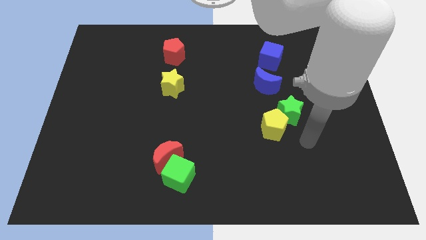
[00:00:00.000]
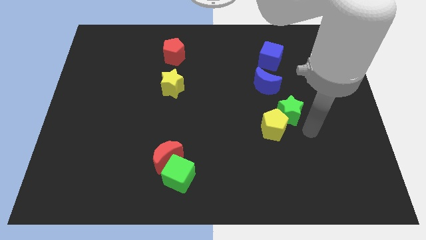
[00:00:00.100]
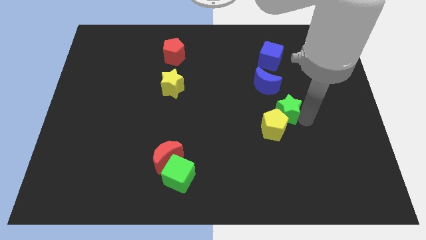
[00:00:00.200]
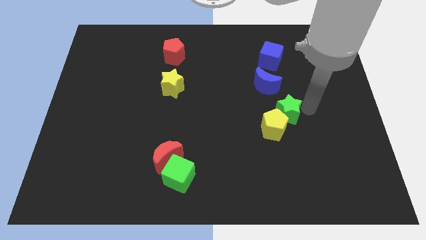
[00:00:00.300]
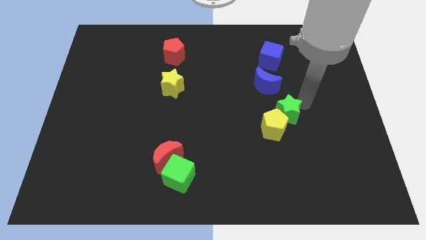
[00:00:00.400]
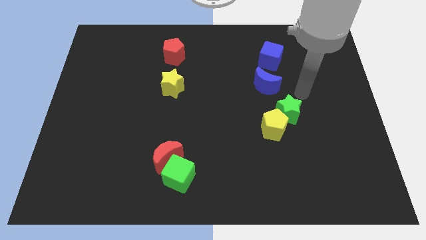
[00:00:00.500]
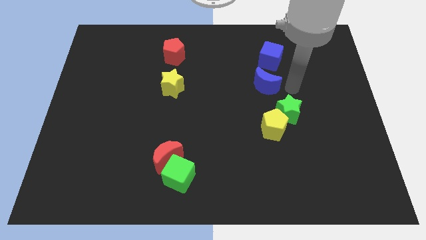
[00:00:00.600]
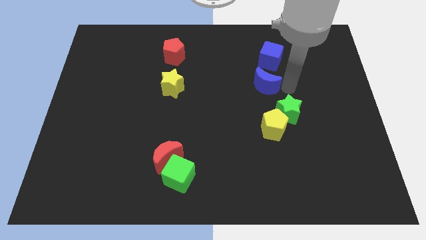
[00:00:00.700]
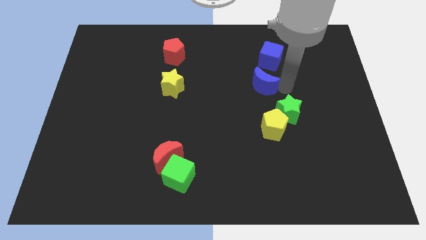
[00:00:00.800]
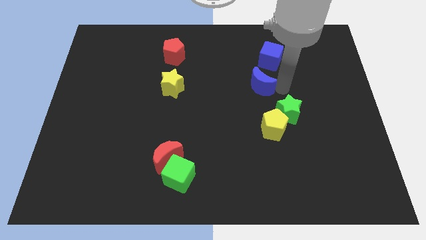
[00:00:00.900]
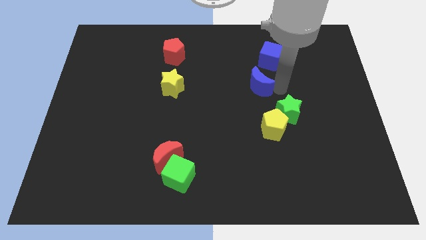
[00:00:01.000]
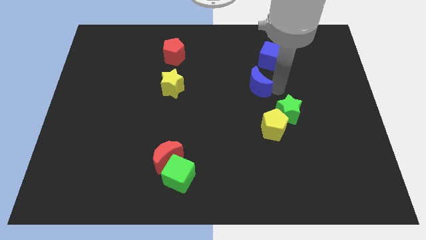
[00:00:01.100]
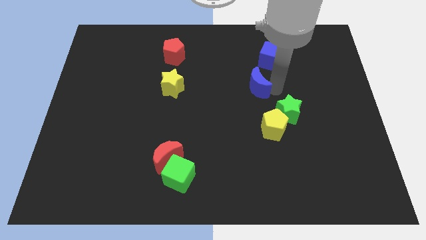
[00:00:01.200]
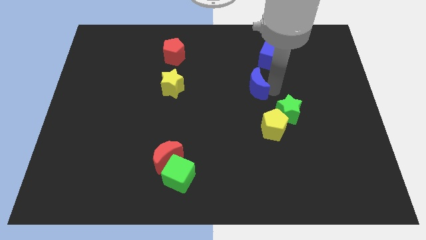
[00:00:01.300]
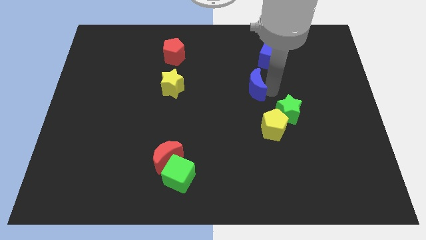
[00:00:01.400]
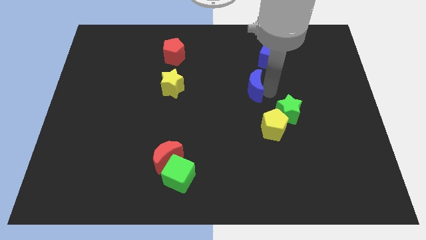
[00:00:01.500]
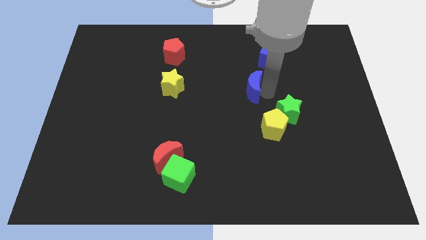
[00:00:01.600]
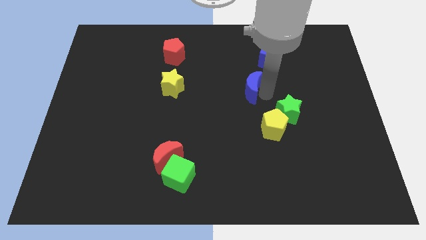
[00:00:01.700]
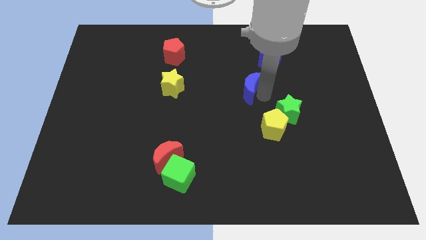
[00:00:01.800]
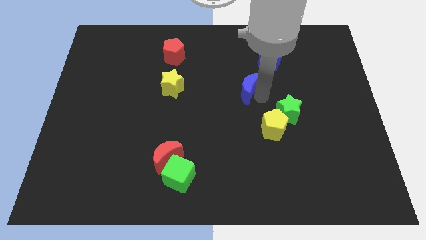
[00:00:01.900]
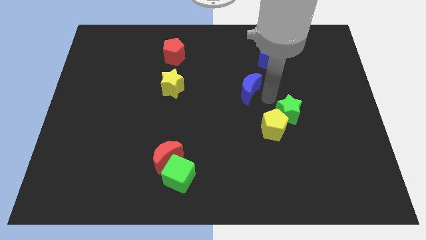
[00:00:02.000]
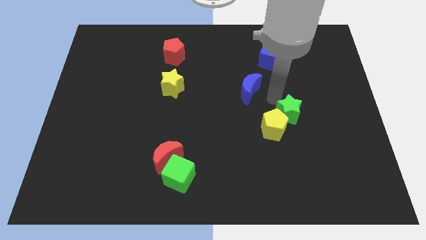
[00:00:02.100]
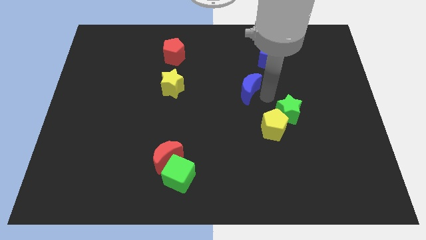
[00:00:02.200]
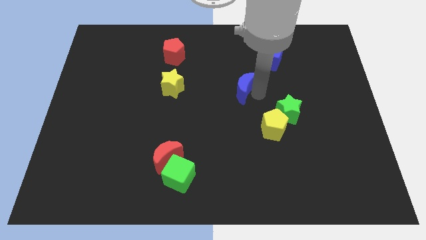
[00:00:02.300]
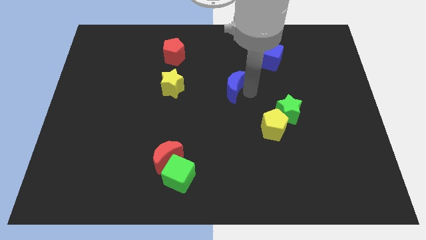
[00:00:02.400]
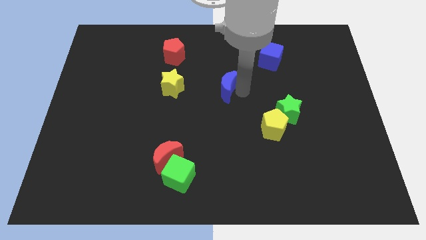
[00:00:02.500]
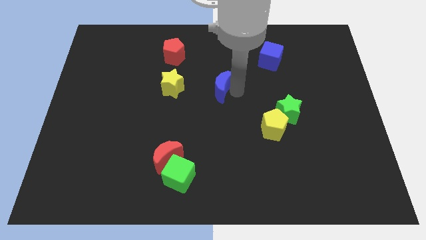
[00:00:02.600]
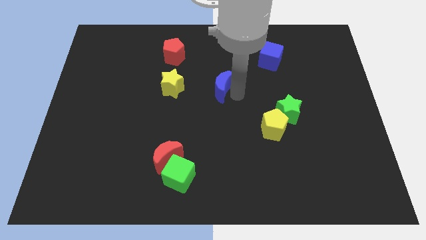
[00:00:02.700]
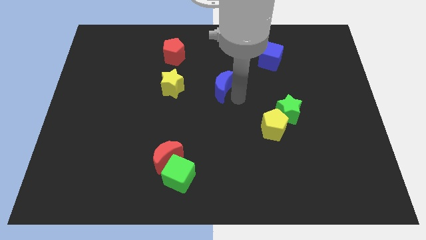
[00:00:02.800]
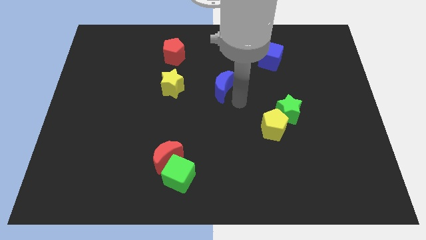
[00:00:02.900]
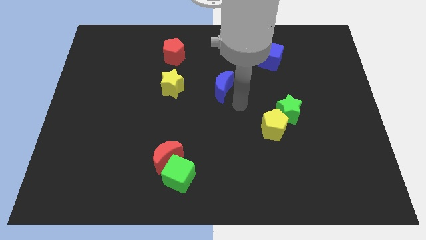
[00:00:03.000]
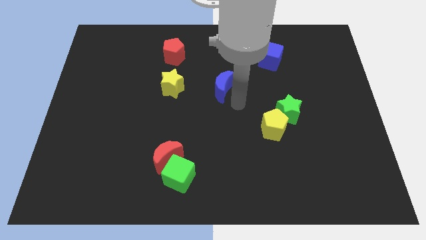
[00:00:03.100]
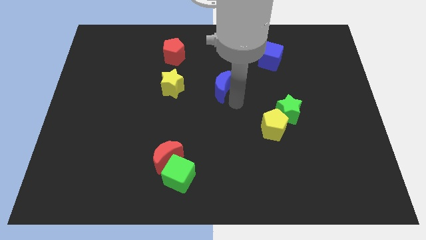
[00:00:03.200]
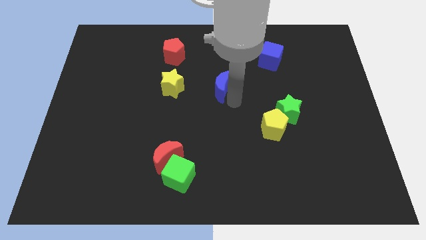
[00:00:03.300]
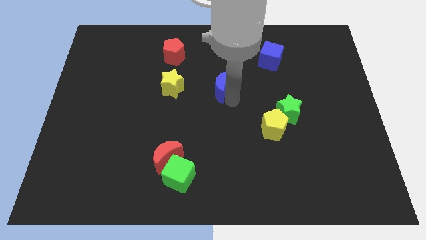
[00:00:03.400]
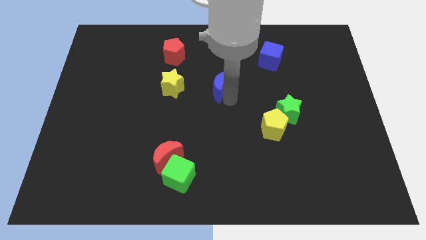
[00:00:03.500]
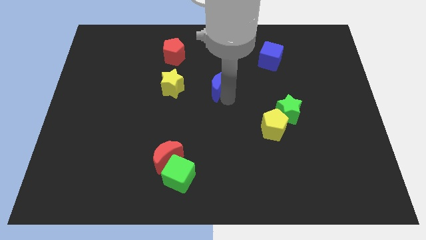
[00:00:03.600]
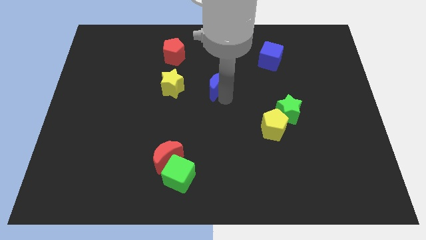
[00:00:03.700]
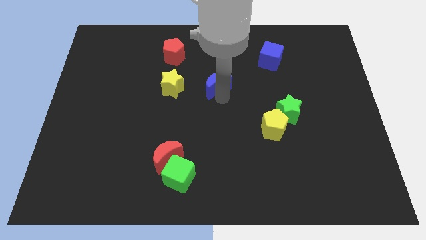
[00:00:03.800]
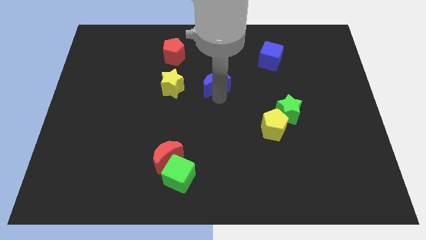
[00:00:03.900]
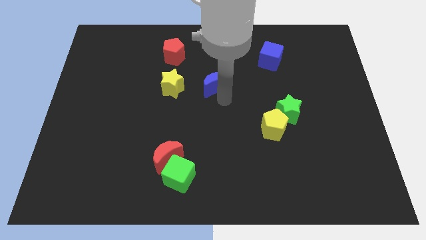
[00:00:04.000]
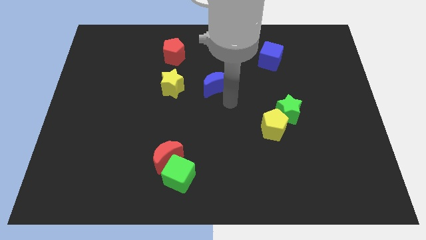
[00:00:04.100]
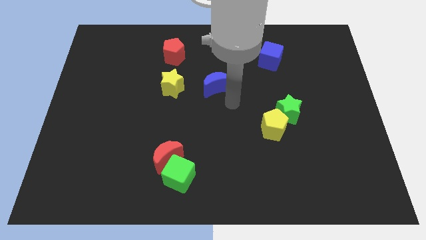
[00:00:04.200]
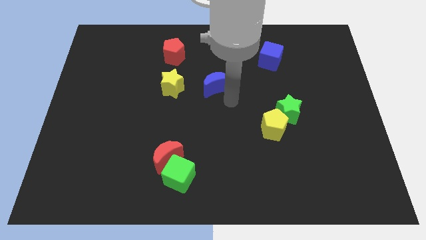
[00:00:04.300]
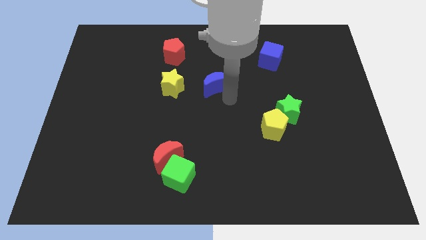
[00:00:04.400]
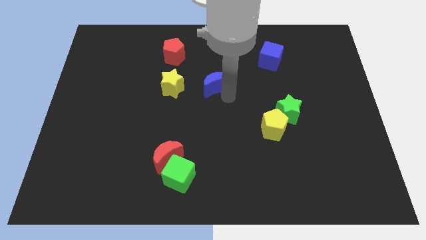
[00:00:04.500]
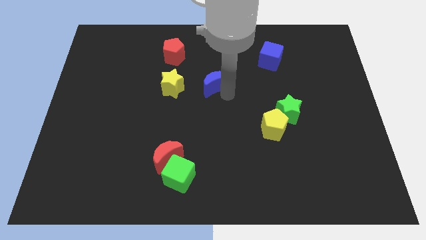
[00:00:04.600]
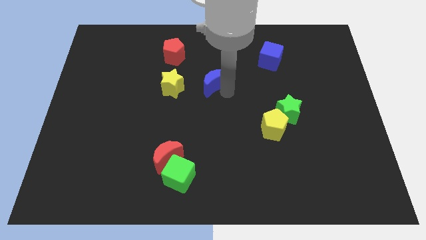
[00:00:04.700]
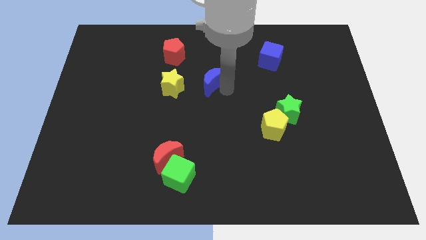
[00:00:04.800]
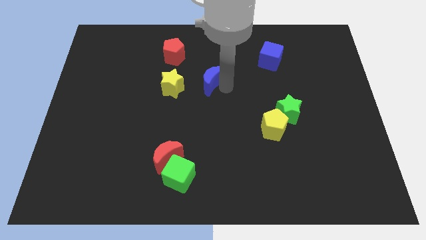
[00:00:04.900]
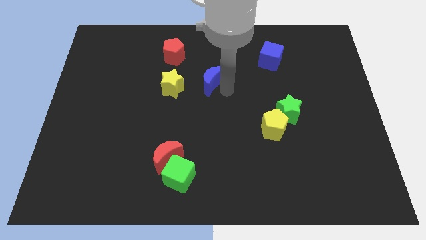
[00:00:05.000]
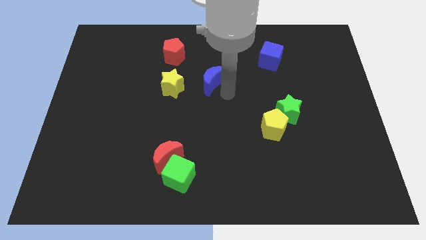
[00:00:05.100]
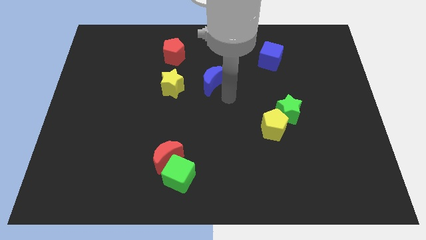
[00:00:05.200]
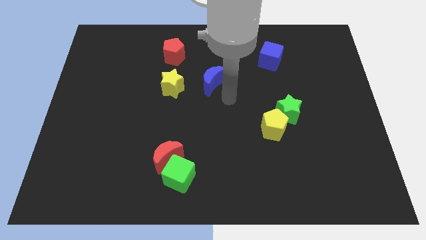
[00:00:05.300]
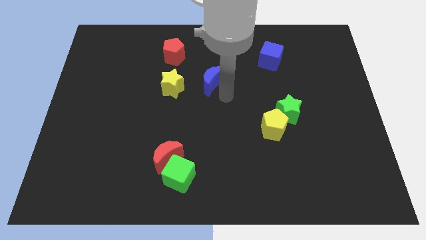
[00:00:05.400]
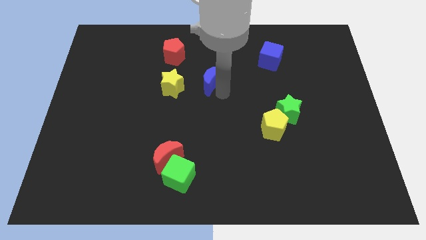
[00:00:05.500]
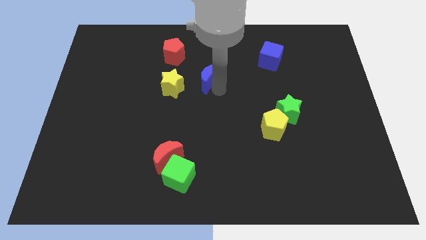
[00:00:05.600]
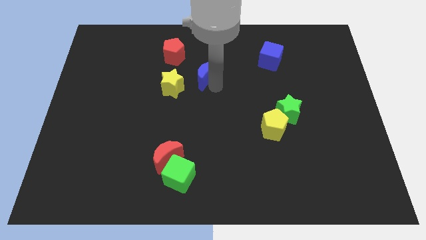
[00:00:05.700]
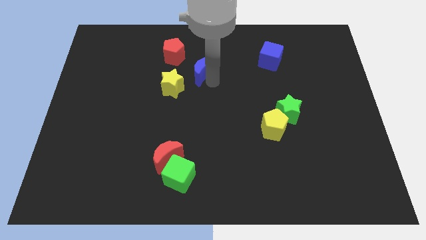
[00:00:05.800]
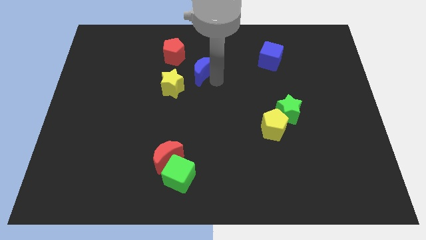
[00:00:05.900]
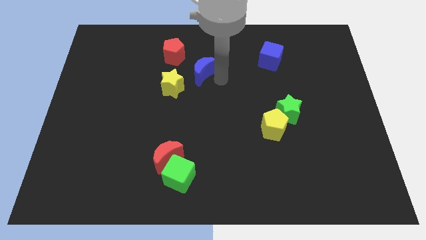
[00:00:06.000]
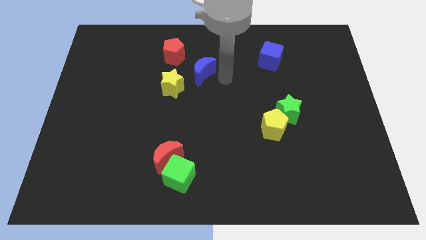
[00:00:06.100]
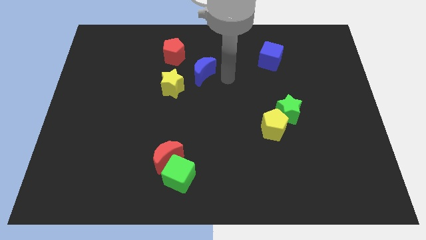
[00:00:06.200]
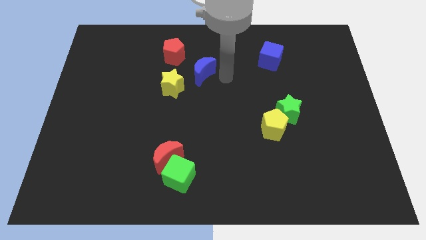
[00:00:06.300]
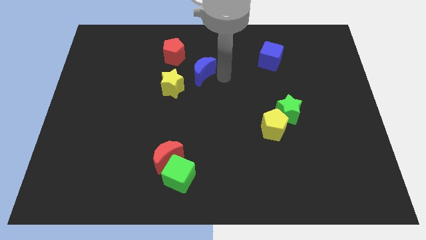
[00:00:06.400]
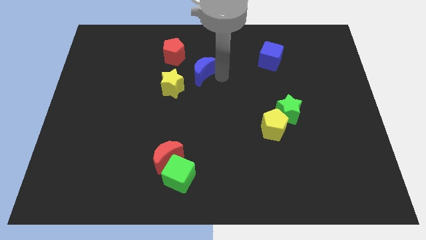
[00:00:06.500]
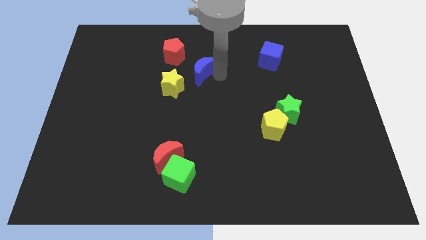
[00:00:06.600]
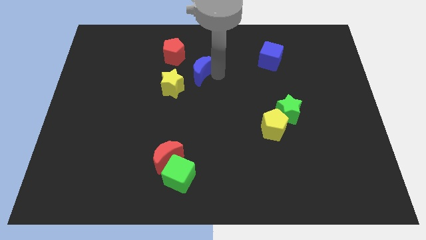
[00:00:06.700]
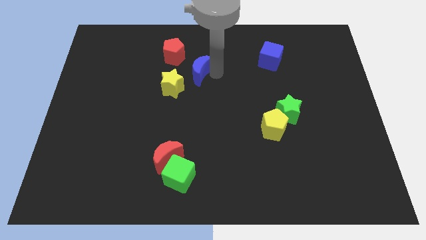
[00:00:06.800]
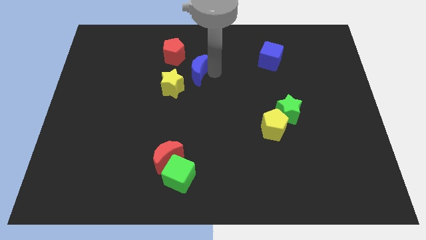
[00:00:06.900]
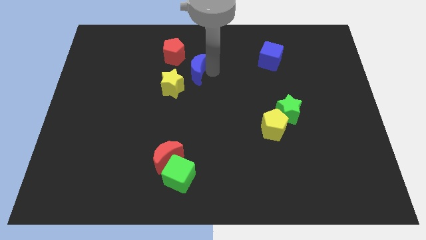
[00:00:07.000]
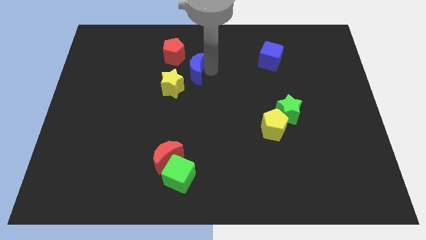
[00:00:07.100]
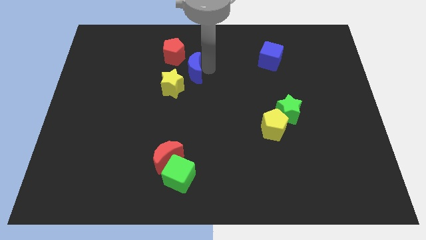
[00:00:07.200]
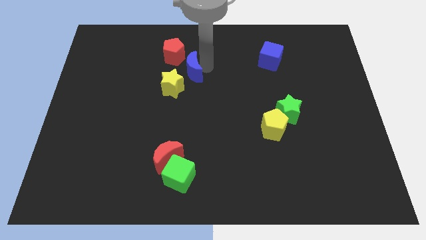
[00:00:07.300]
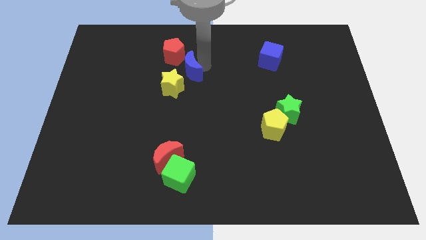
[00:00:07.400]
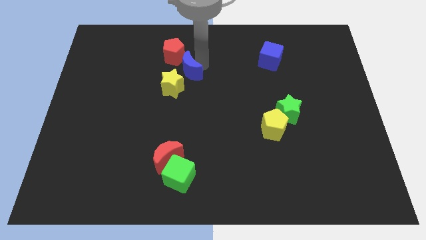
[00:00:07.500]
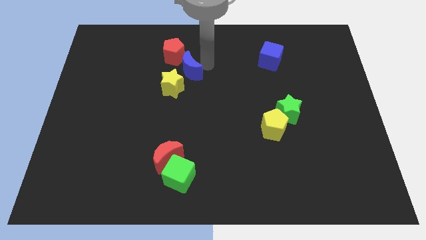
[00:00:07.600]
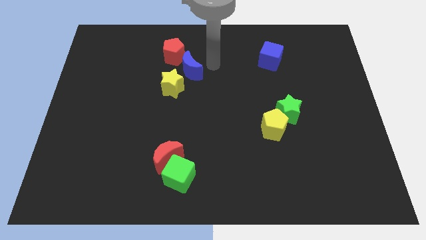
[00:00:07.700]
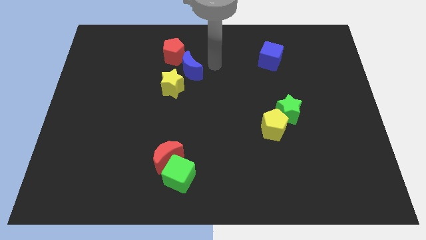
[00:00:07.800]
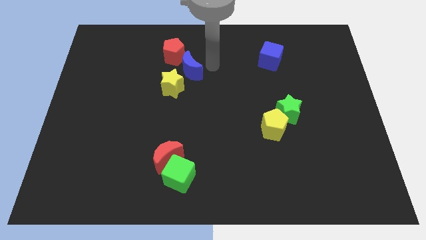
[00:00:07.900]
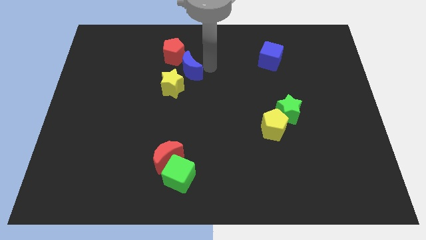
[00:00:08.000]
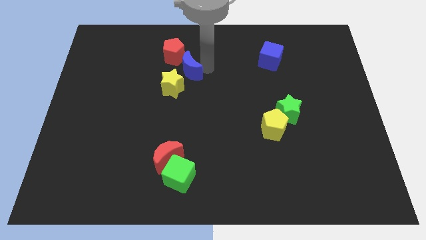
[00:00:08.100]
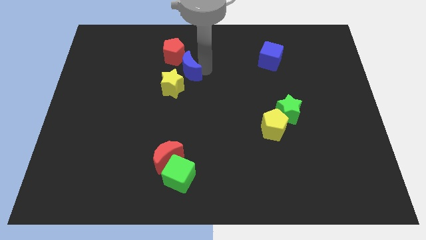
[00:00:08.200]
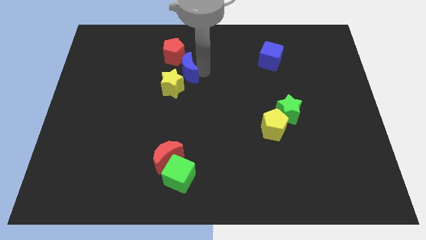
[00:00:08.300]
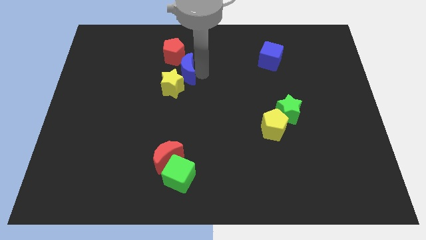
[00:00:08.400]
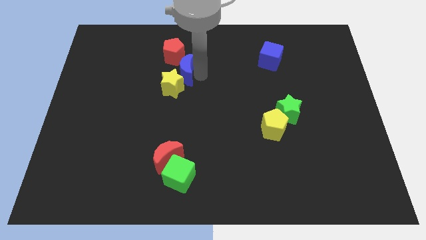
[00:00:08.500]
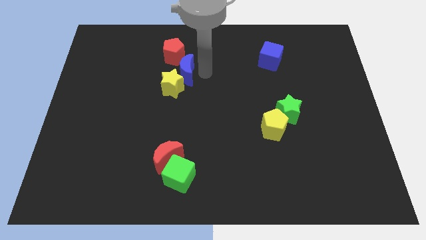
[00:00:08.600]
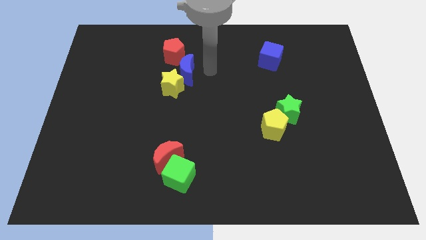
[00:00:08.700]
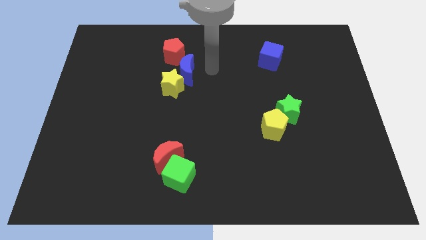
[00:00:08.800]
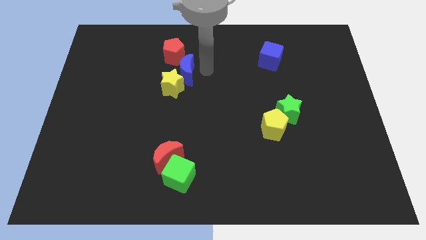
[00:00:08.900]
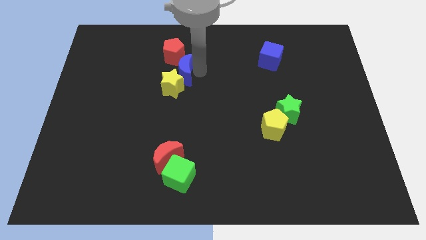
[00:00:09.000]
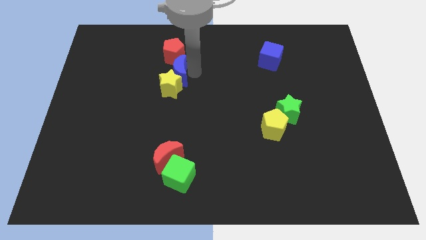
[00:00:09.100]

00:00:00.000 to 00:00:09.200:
move the blue moon to the left
